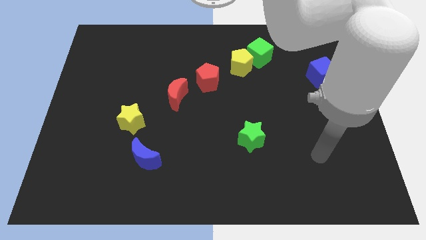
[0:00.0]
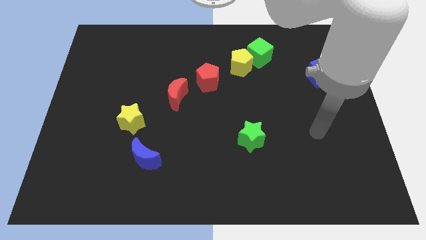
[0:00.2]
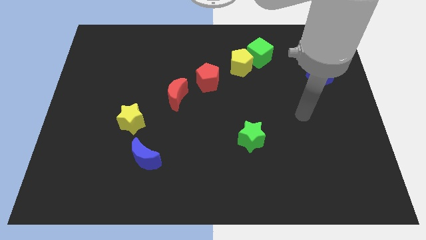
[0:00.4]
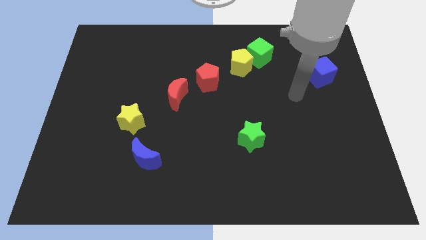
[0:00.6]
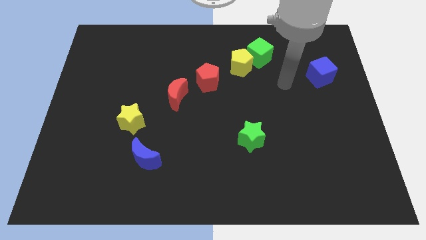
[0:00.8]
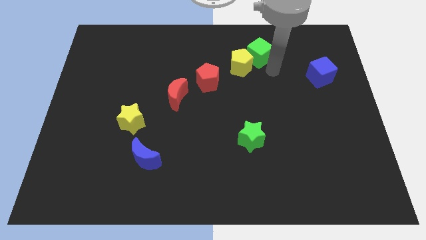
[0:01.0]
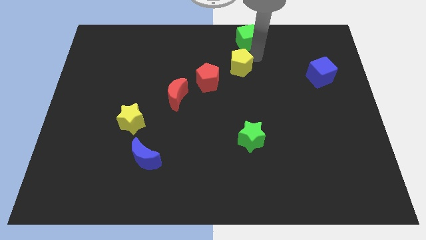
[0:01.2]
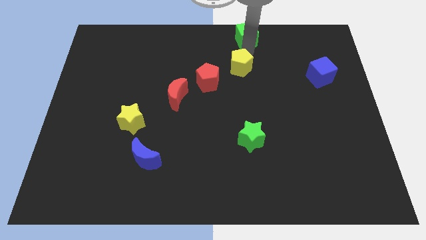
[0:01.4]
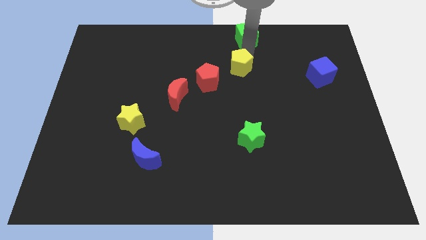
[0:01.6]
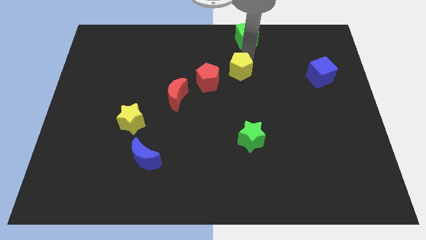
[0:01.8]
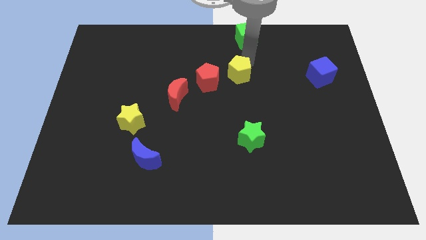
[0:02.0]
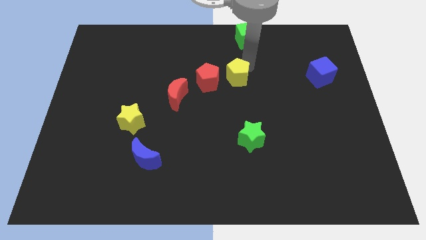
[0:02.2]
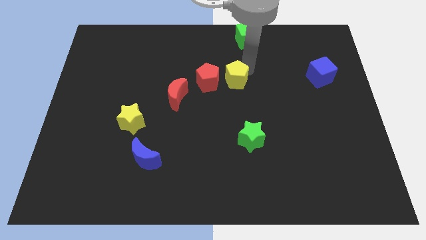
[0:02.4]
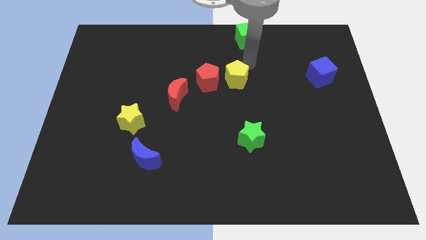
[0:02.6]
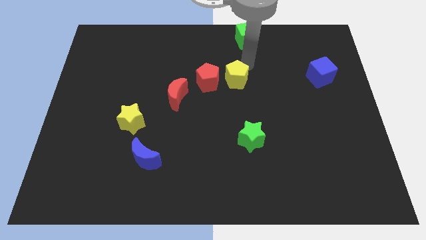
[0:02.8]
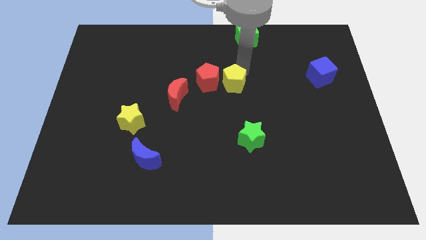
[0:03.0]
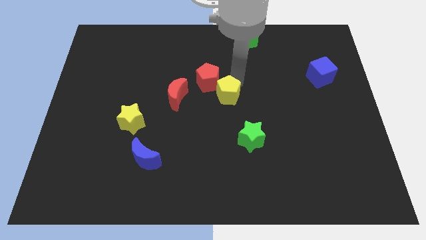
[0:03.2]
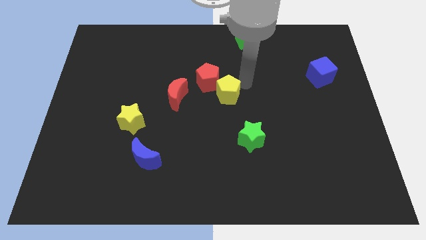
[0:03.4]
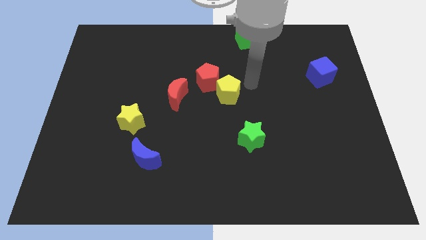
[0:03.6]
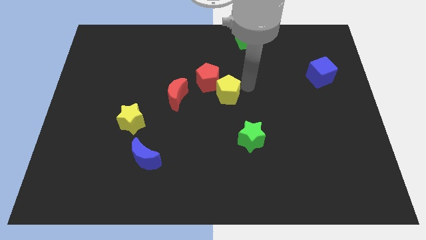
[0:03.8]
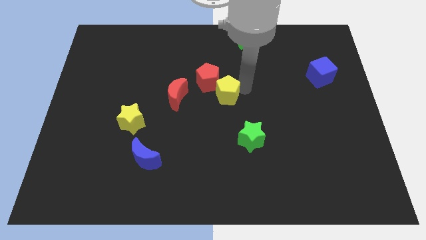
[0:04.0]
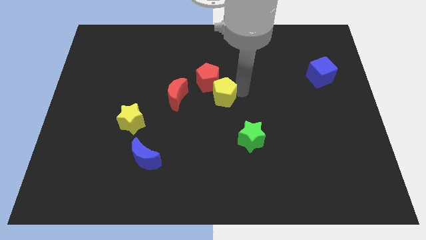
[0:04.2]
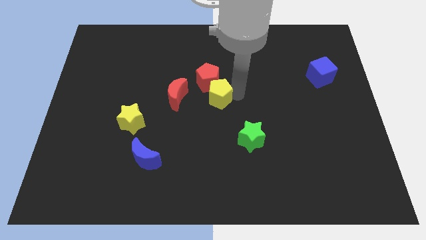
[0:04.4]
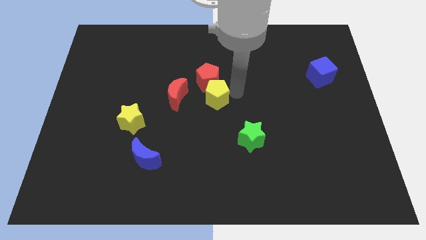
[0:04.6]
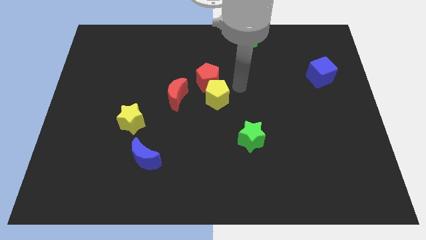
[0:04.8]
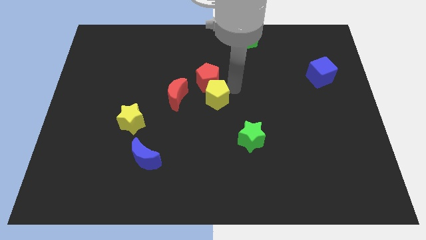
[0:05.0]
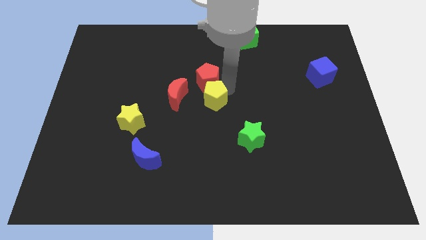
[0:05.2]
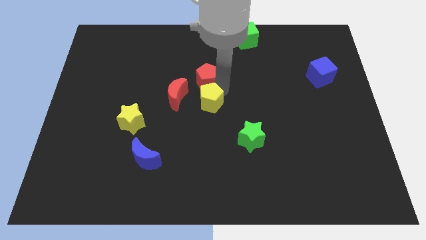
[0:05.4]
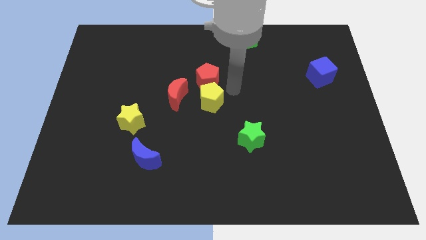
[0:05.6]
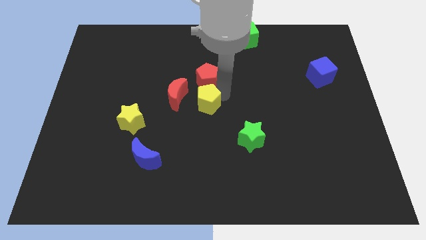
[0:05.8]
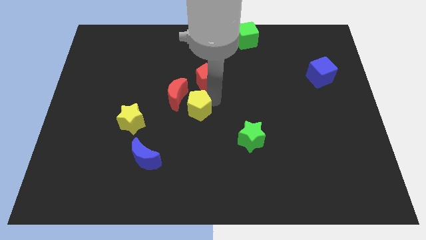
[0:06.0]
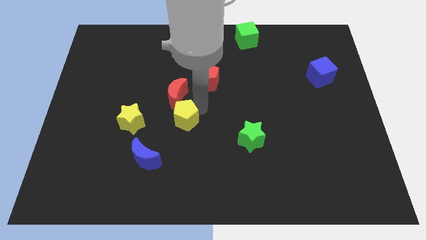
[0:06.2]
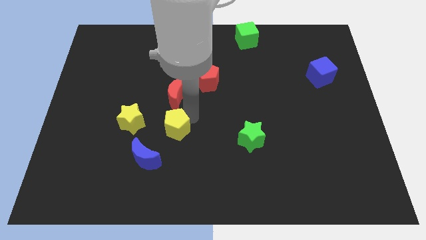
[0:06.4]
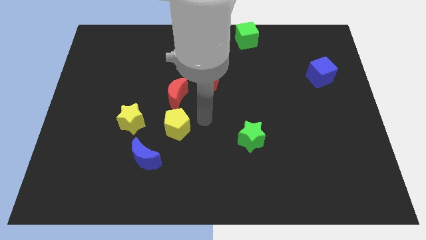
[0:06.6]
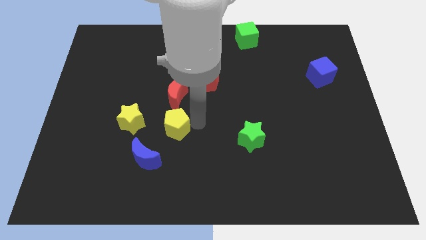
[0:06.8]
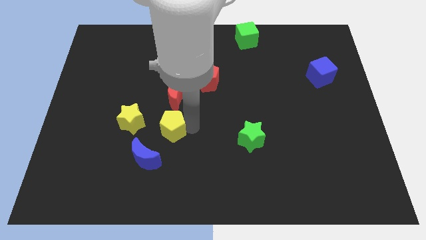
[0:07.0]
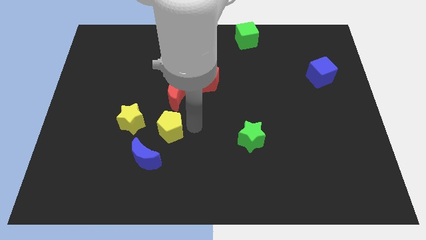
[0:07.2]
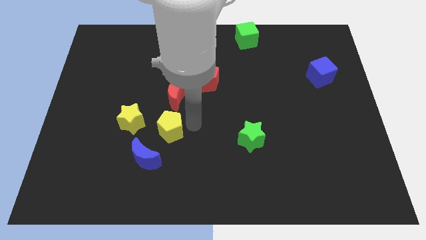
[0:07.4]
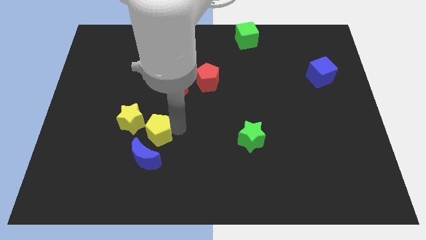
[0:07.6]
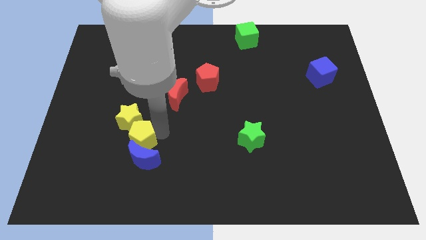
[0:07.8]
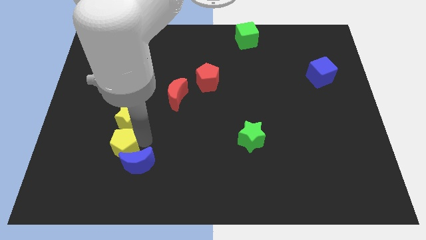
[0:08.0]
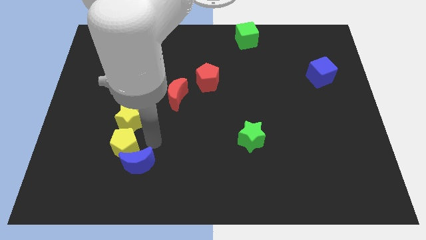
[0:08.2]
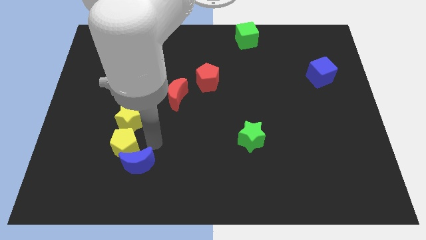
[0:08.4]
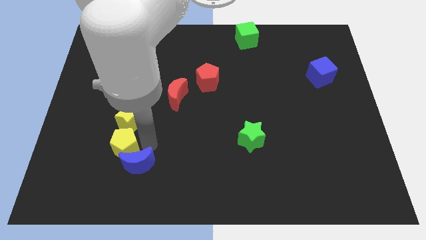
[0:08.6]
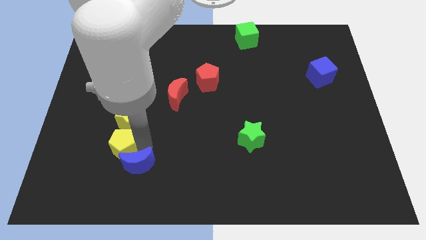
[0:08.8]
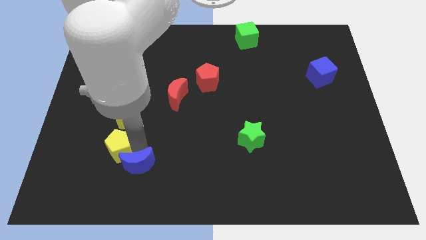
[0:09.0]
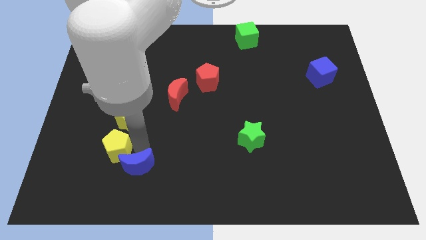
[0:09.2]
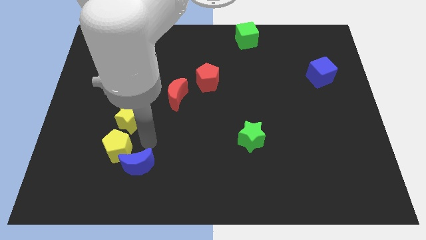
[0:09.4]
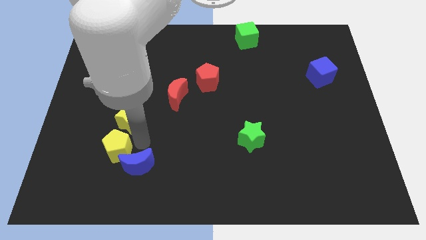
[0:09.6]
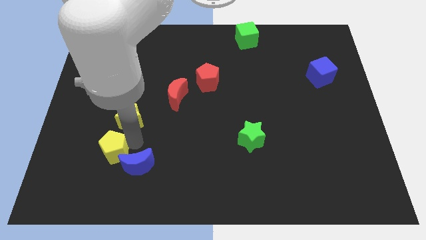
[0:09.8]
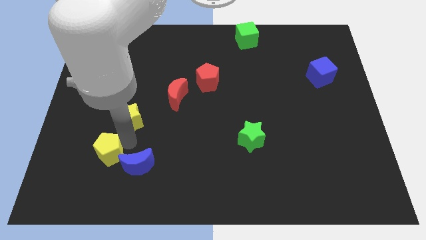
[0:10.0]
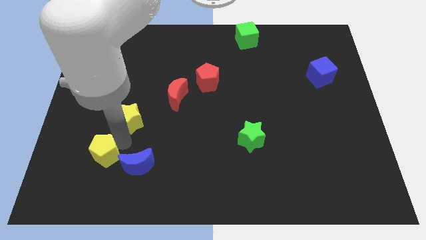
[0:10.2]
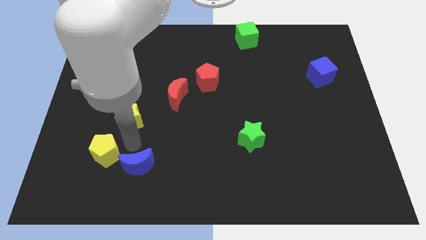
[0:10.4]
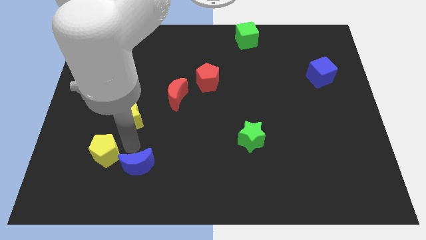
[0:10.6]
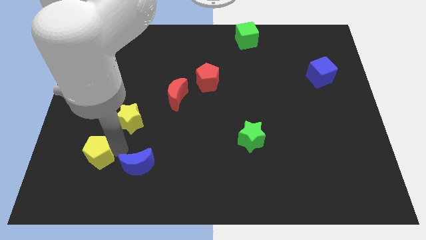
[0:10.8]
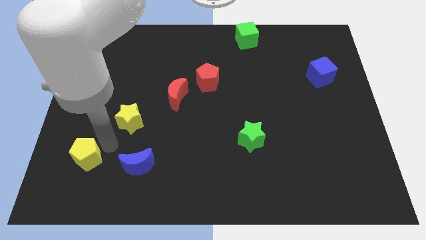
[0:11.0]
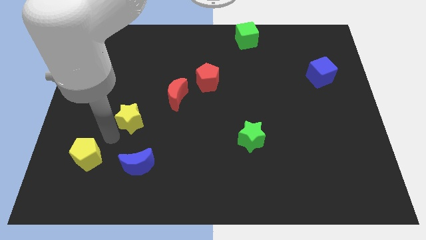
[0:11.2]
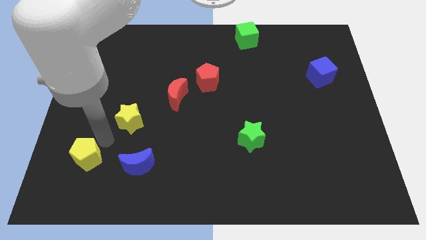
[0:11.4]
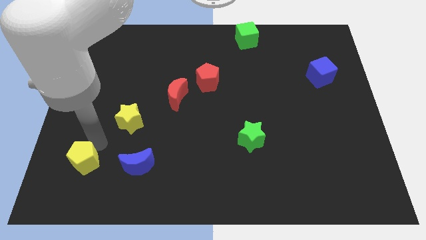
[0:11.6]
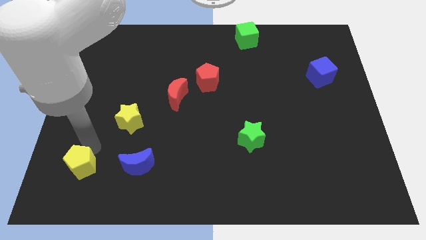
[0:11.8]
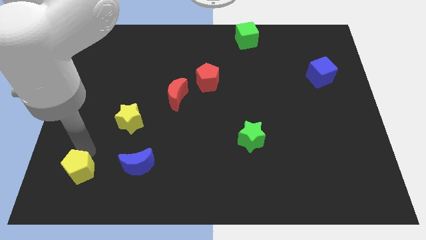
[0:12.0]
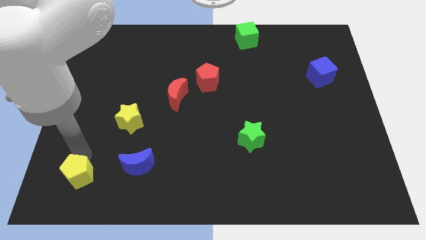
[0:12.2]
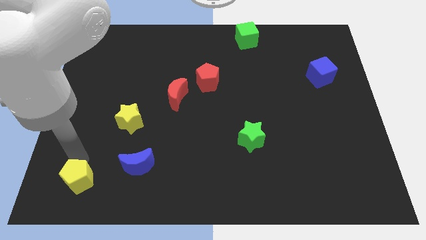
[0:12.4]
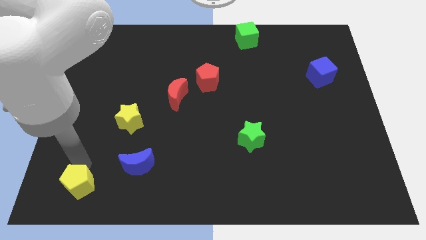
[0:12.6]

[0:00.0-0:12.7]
slide the yellow pentagon to the bottom left

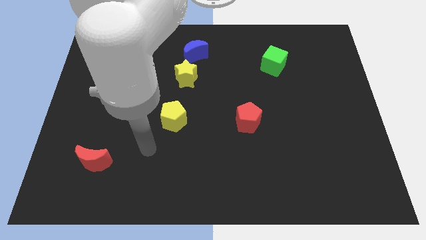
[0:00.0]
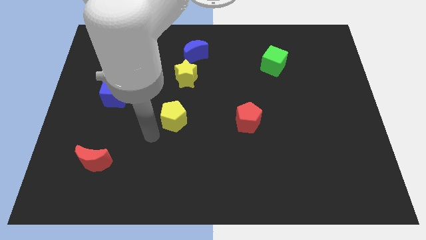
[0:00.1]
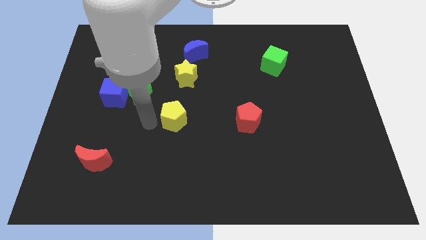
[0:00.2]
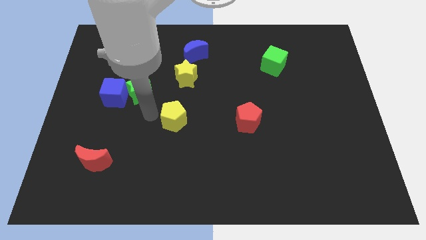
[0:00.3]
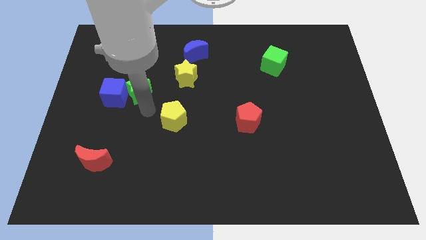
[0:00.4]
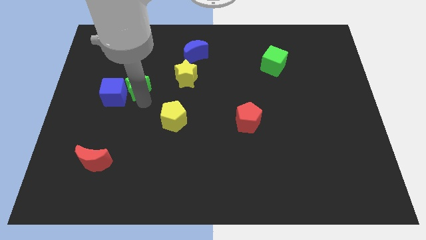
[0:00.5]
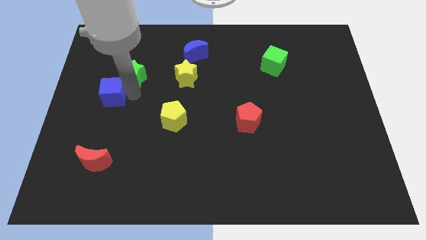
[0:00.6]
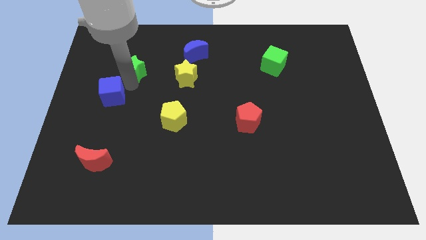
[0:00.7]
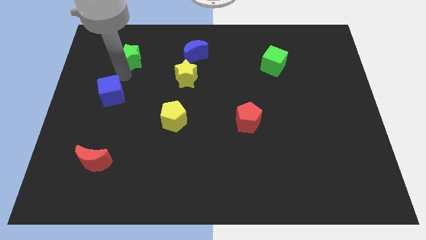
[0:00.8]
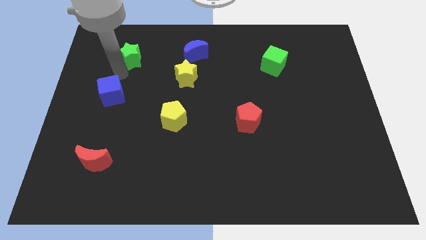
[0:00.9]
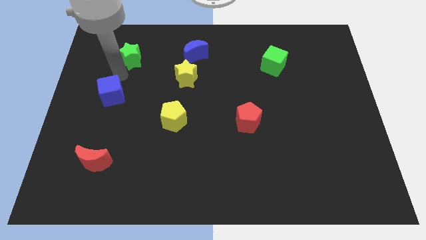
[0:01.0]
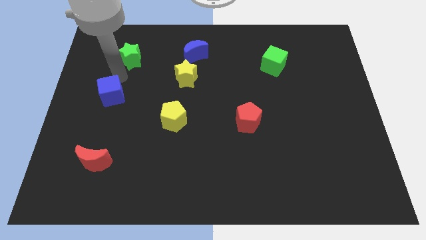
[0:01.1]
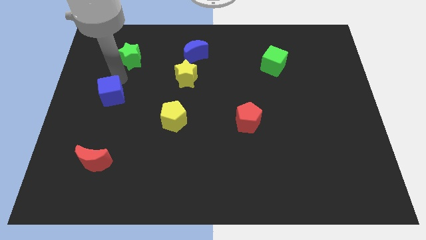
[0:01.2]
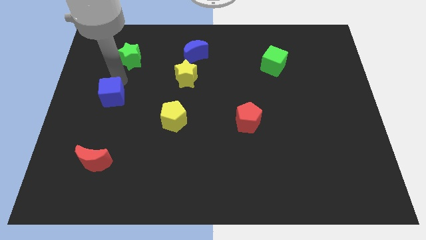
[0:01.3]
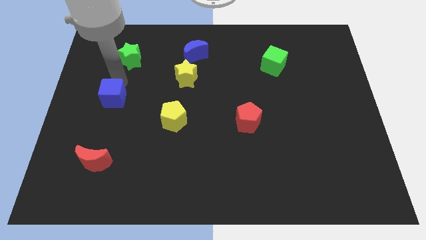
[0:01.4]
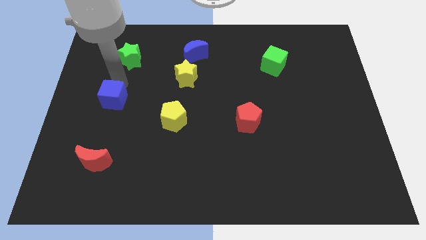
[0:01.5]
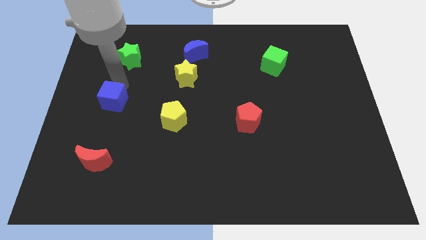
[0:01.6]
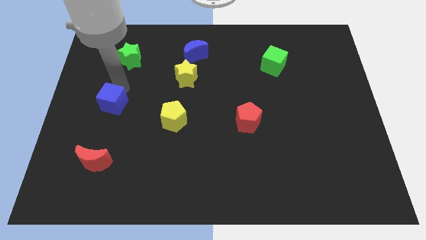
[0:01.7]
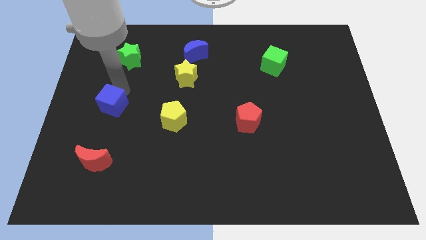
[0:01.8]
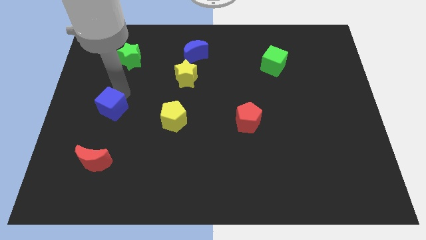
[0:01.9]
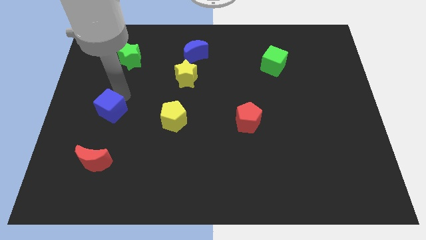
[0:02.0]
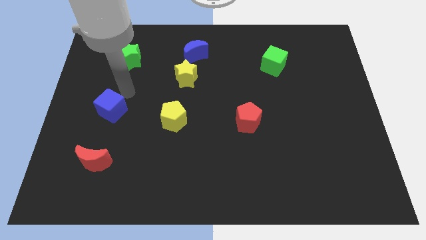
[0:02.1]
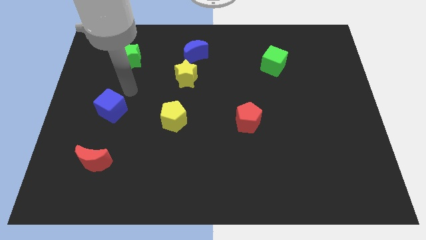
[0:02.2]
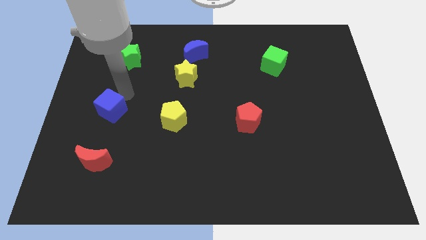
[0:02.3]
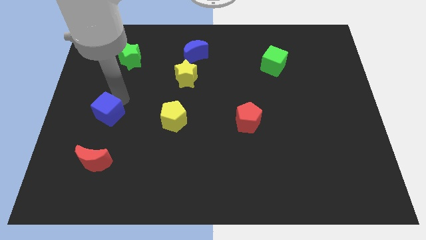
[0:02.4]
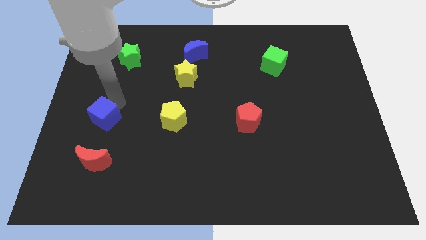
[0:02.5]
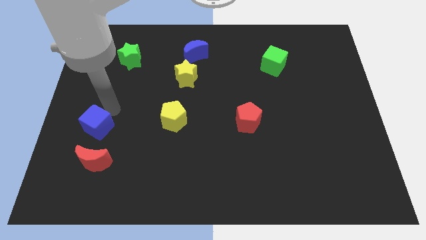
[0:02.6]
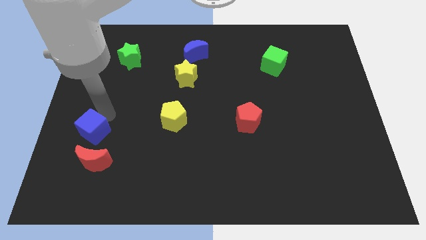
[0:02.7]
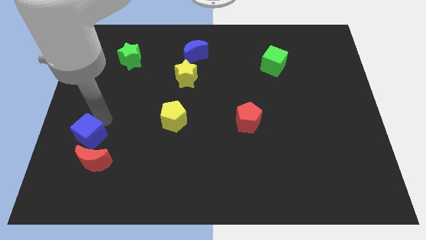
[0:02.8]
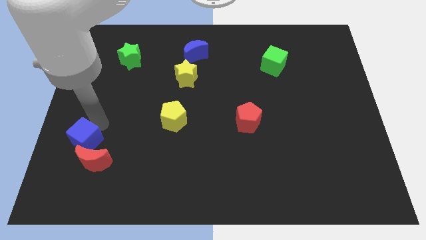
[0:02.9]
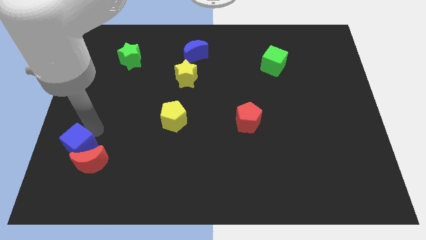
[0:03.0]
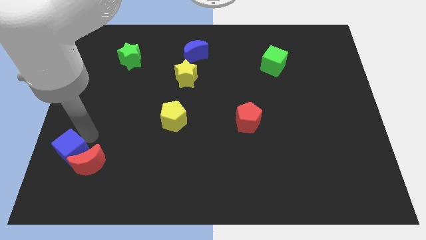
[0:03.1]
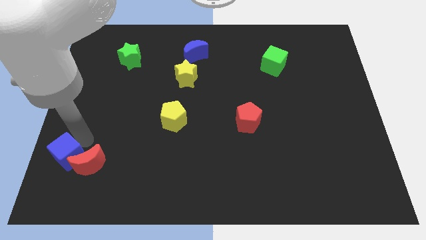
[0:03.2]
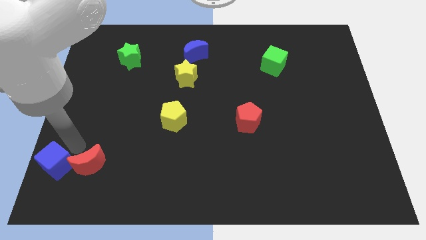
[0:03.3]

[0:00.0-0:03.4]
slide the blue cube to the bottom left
